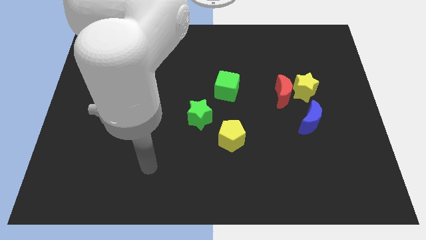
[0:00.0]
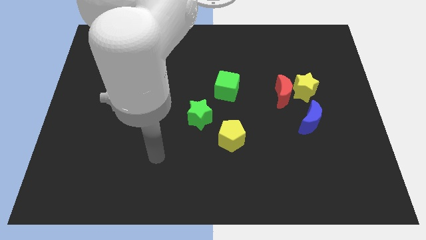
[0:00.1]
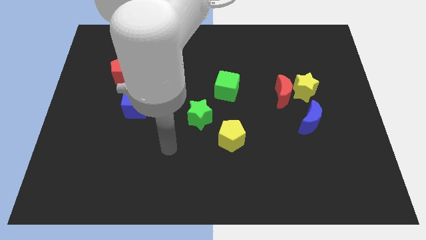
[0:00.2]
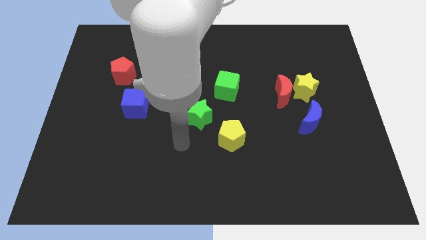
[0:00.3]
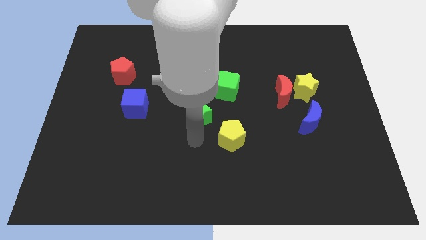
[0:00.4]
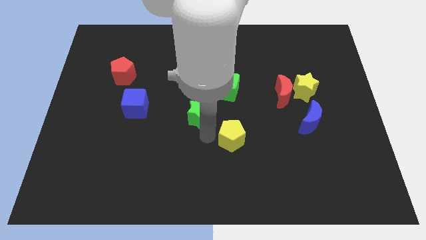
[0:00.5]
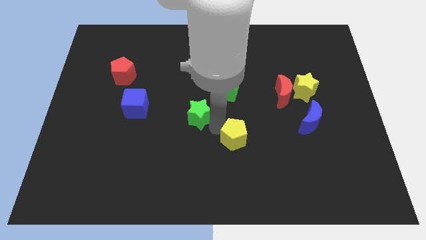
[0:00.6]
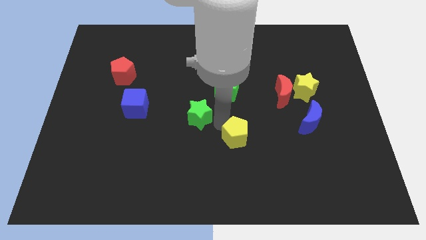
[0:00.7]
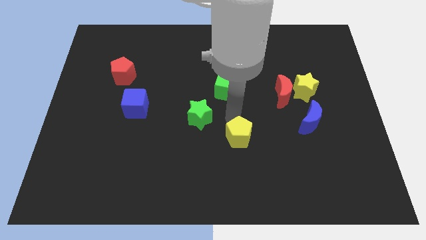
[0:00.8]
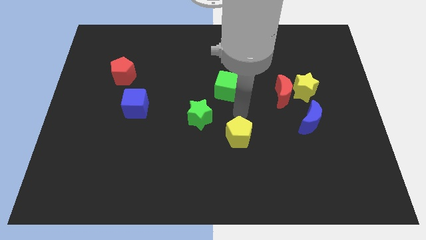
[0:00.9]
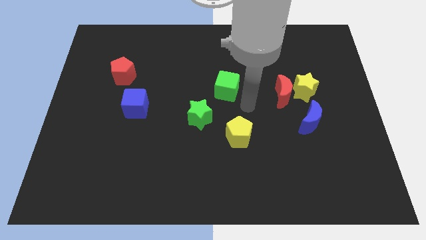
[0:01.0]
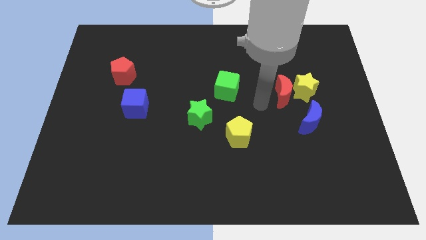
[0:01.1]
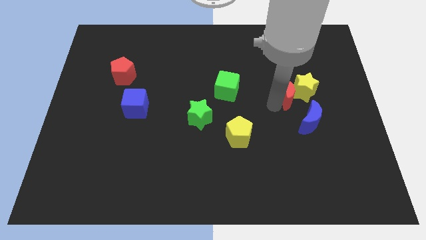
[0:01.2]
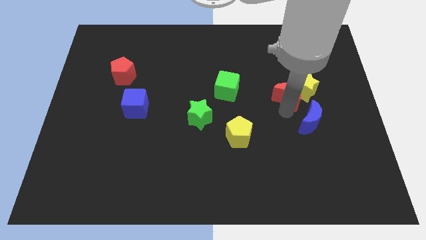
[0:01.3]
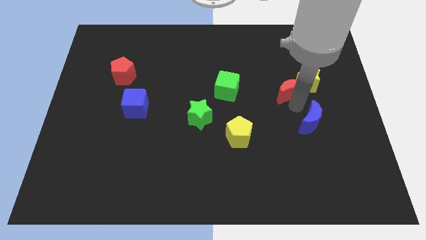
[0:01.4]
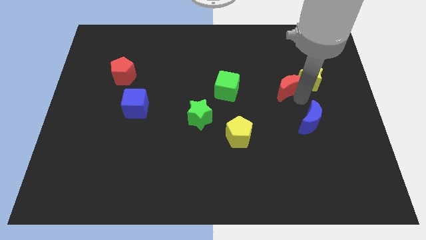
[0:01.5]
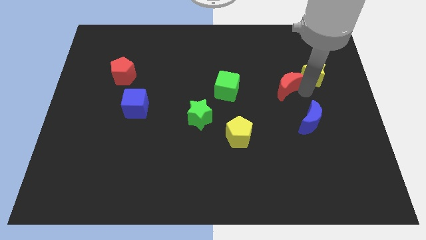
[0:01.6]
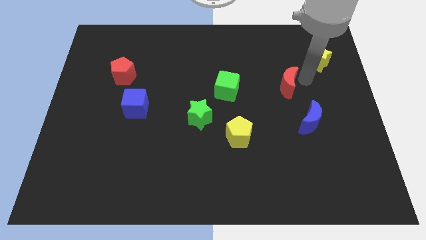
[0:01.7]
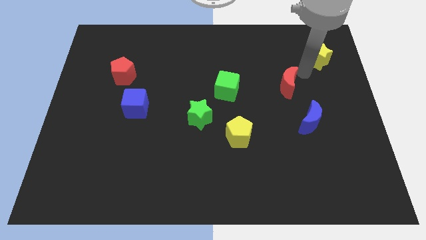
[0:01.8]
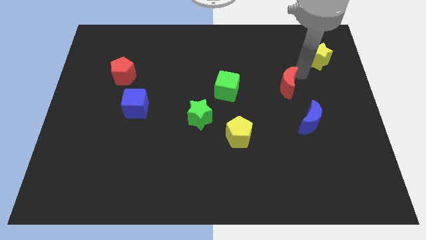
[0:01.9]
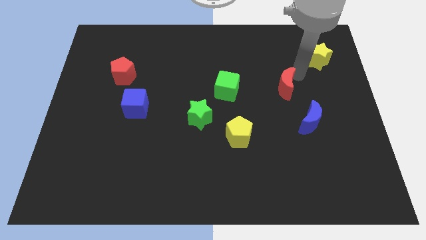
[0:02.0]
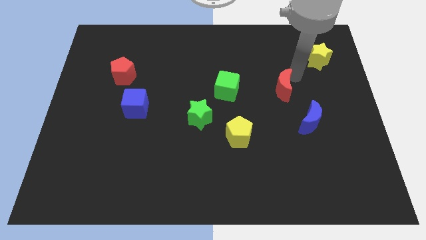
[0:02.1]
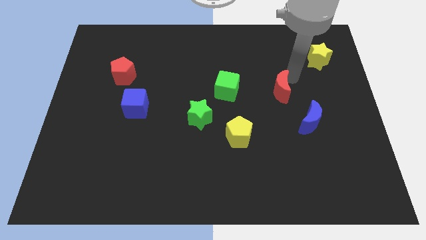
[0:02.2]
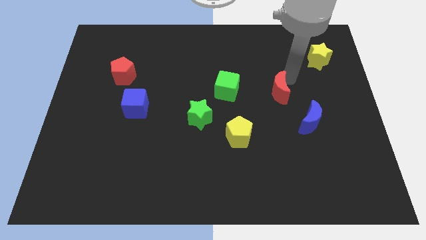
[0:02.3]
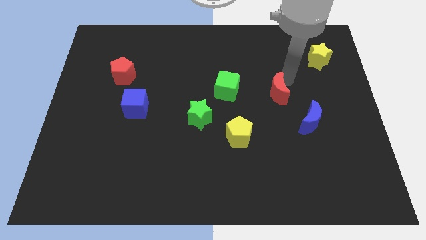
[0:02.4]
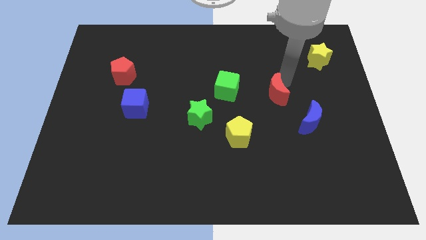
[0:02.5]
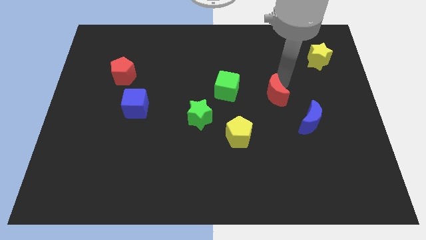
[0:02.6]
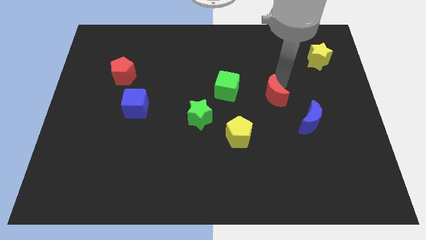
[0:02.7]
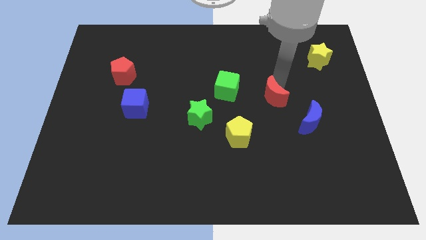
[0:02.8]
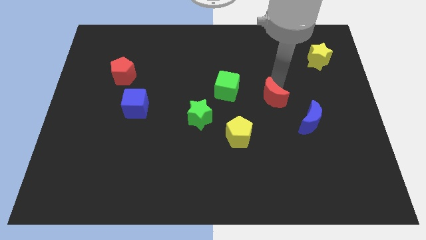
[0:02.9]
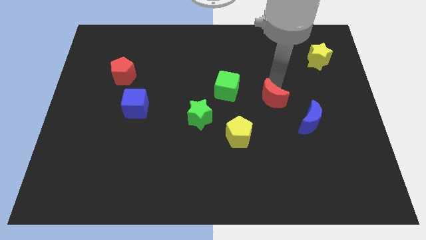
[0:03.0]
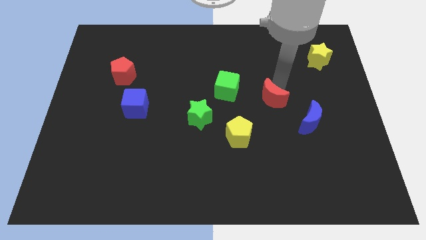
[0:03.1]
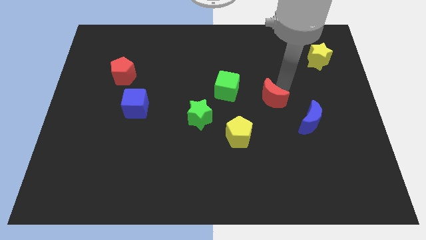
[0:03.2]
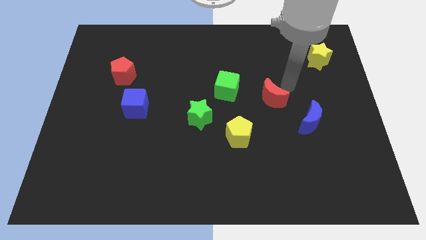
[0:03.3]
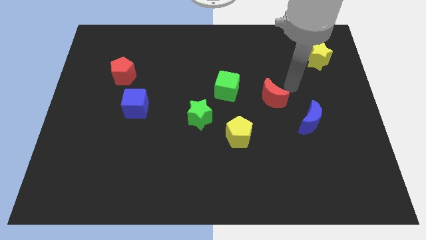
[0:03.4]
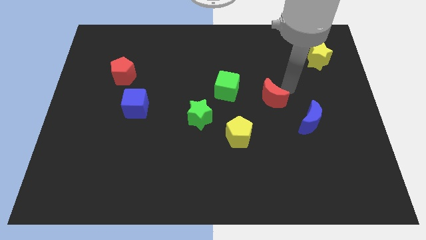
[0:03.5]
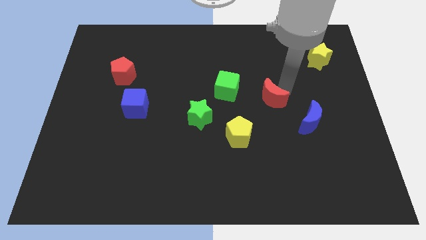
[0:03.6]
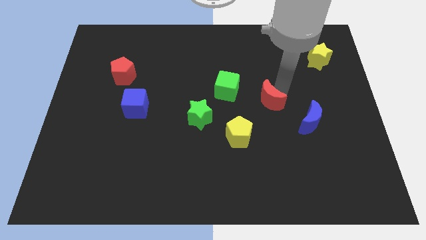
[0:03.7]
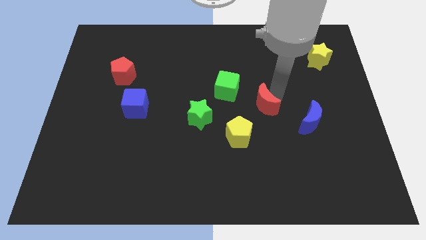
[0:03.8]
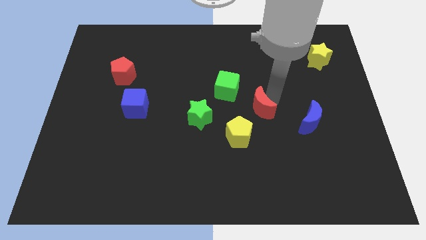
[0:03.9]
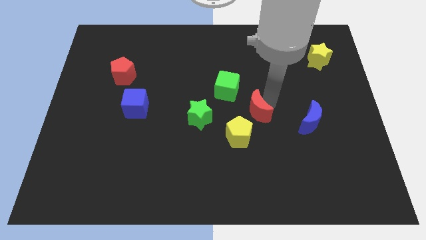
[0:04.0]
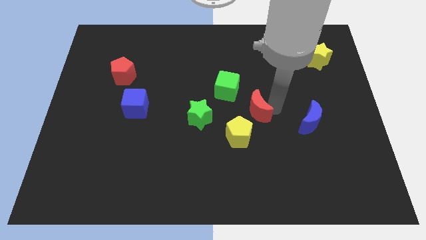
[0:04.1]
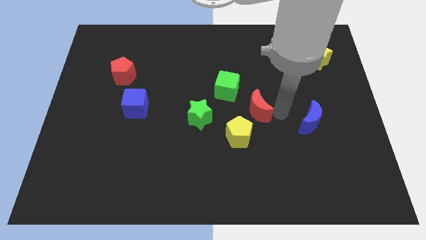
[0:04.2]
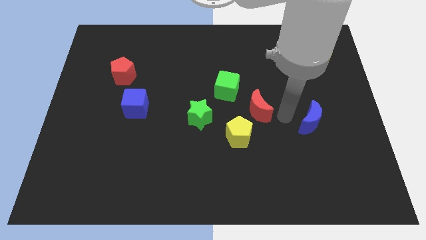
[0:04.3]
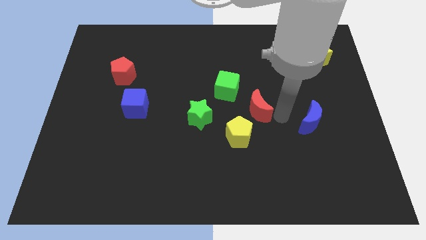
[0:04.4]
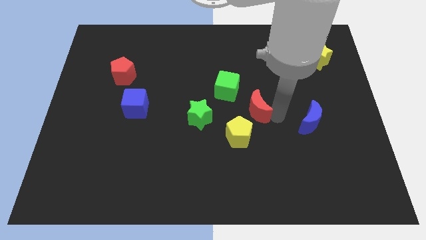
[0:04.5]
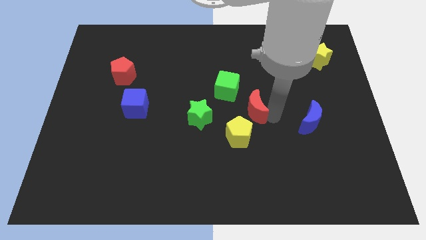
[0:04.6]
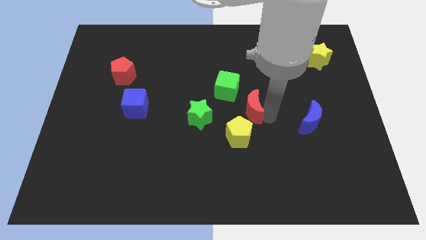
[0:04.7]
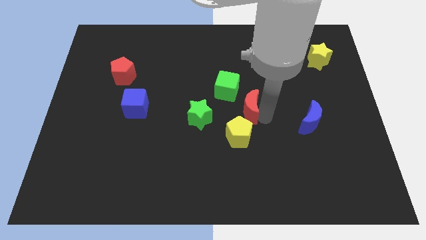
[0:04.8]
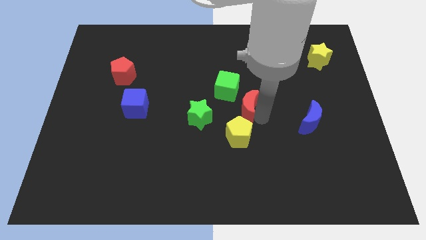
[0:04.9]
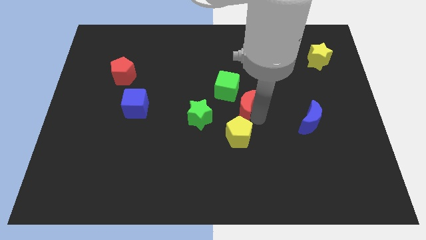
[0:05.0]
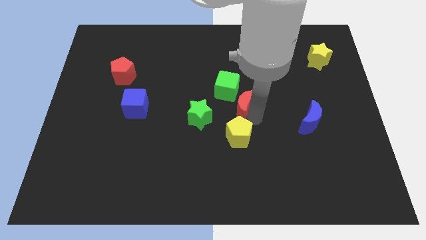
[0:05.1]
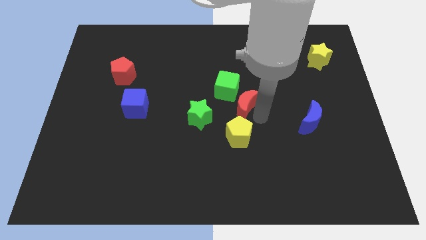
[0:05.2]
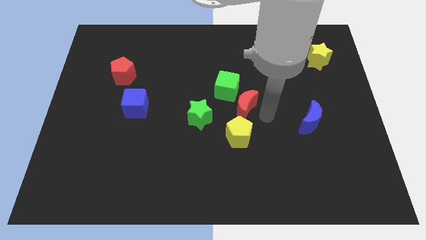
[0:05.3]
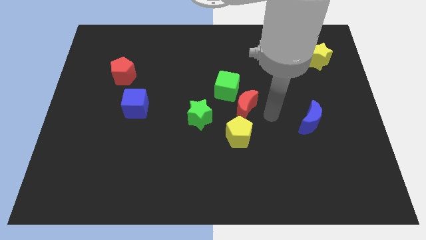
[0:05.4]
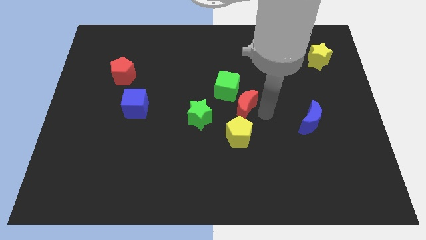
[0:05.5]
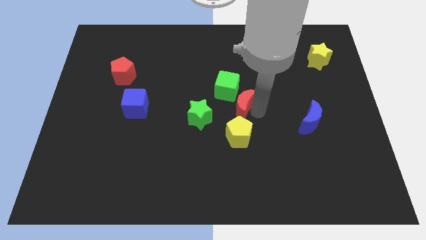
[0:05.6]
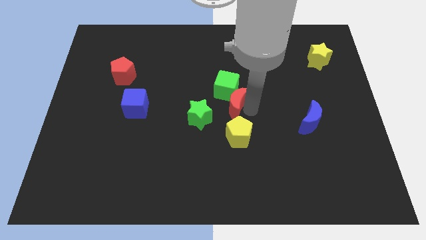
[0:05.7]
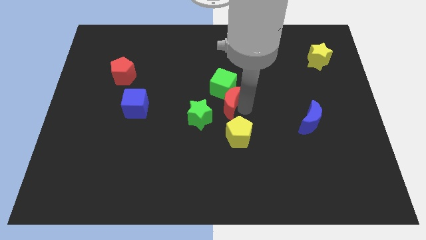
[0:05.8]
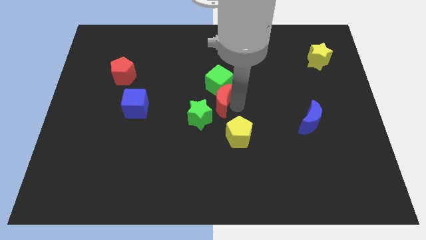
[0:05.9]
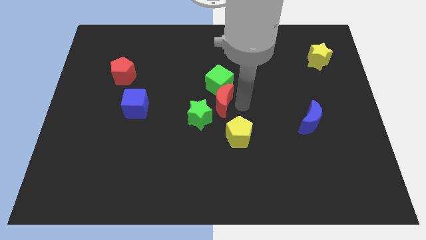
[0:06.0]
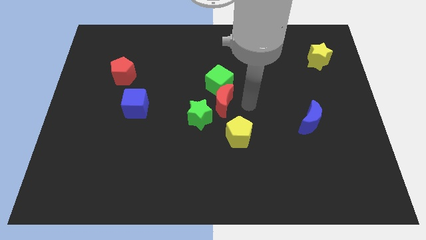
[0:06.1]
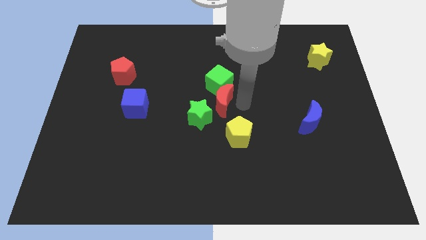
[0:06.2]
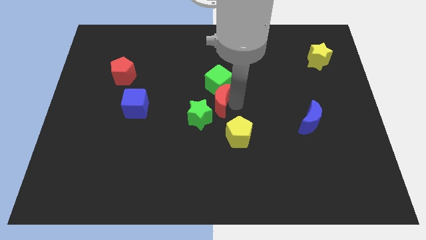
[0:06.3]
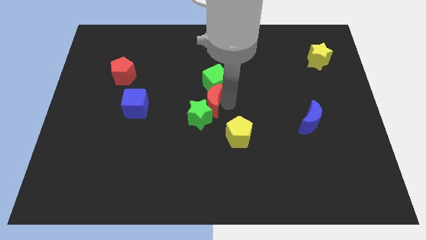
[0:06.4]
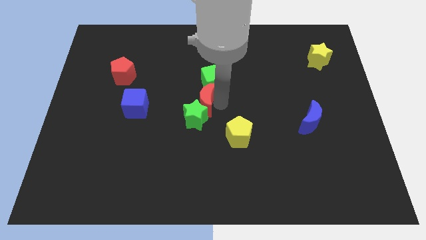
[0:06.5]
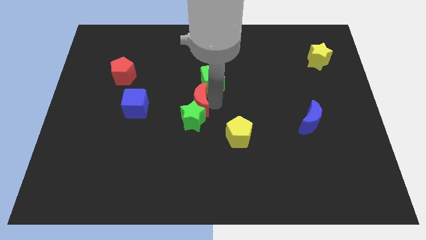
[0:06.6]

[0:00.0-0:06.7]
slide the red moon left

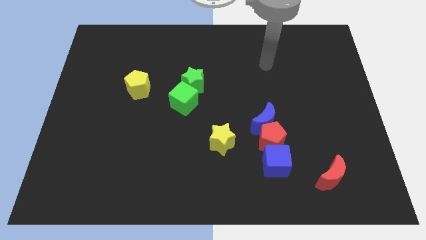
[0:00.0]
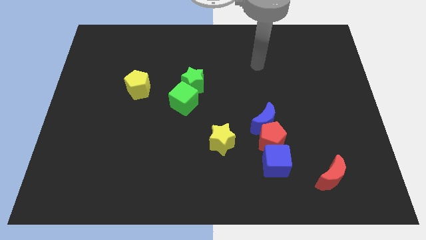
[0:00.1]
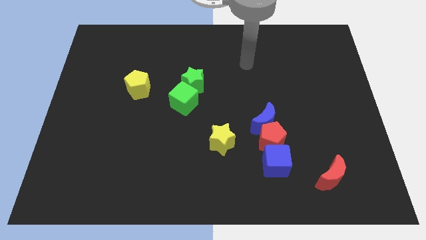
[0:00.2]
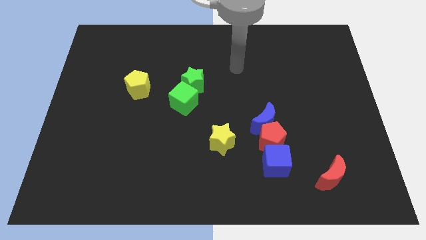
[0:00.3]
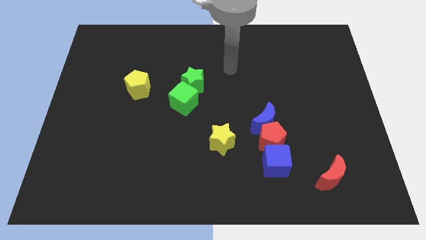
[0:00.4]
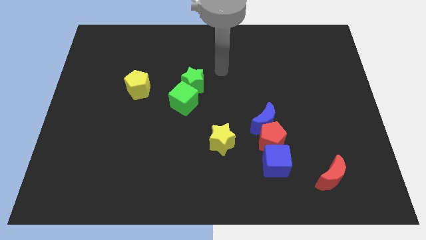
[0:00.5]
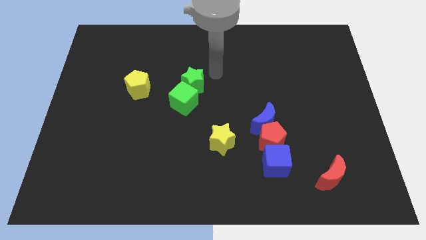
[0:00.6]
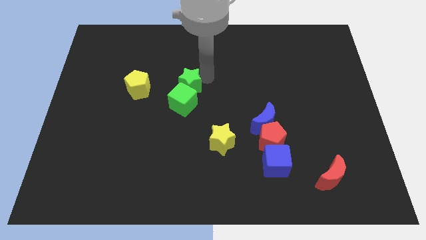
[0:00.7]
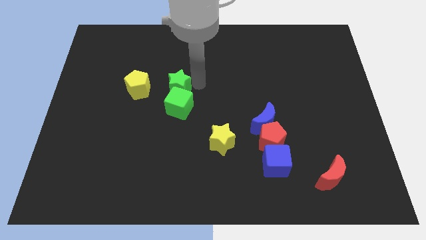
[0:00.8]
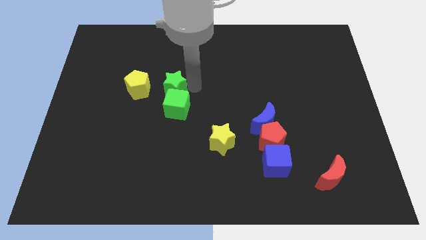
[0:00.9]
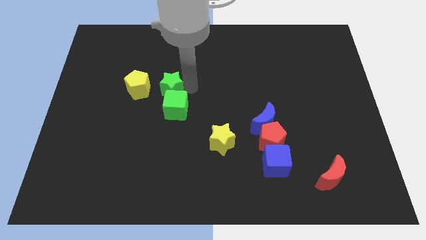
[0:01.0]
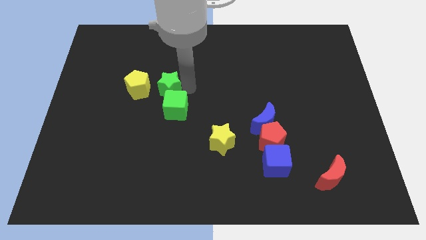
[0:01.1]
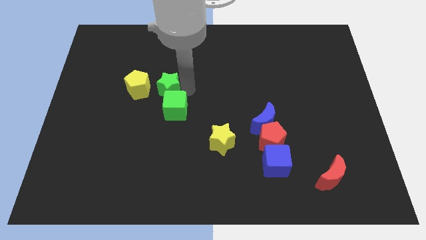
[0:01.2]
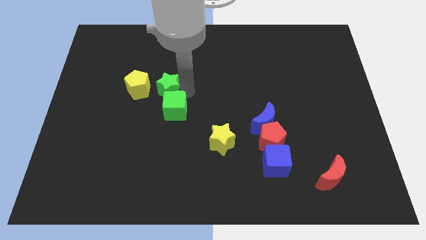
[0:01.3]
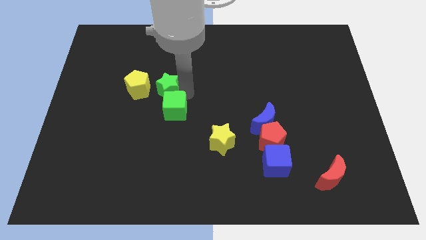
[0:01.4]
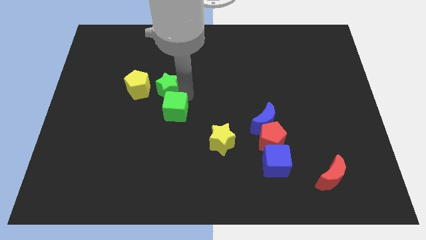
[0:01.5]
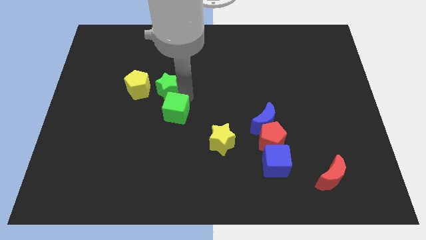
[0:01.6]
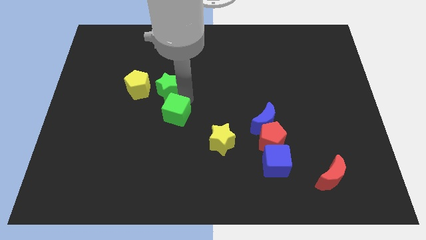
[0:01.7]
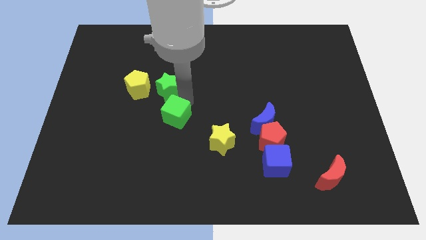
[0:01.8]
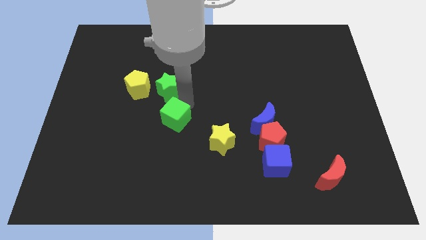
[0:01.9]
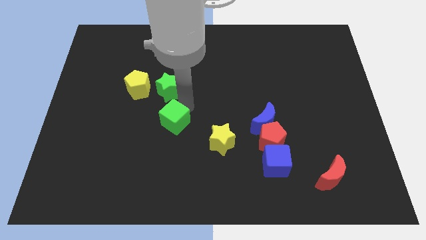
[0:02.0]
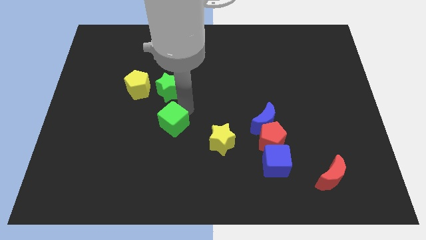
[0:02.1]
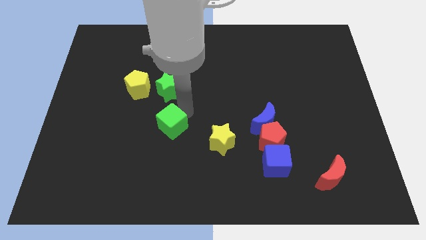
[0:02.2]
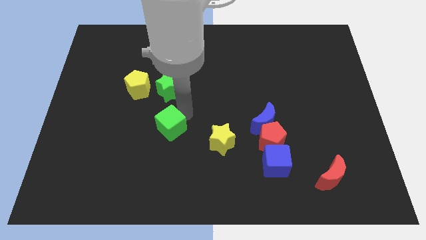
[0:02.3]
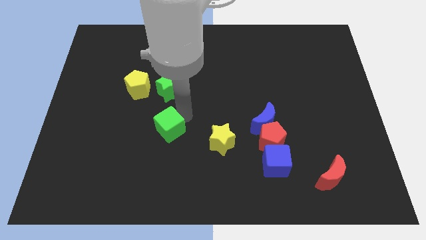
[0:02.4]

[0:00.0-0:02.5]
move the green cube down and to the left a little bit
